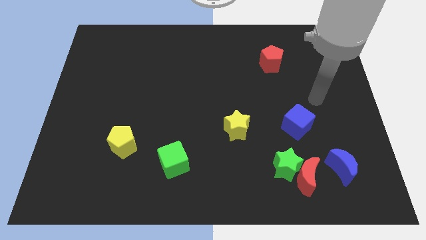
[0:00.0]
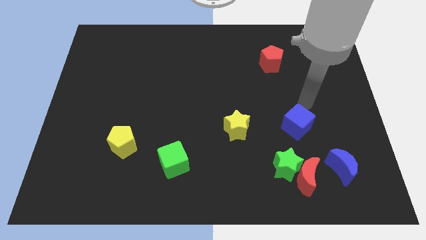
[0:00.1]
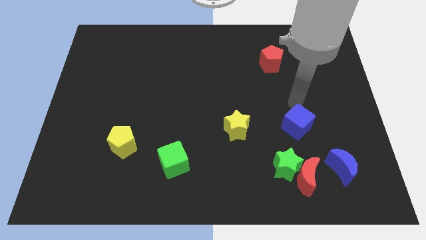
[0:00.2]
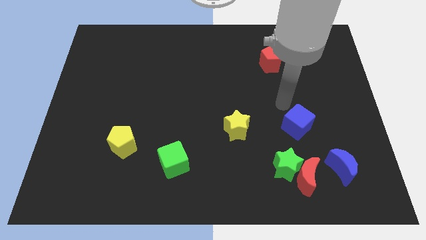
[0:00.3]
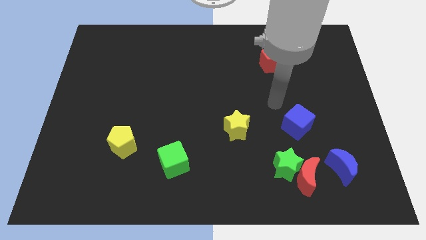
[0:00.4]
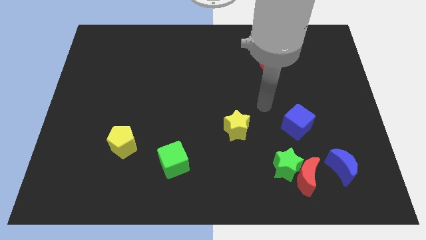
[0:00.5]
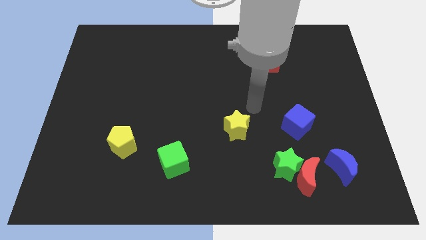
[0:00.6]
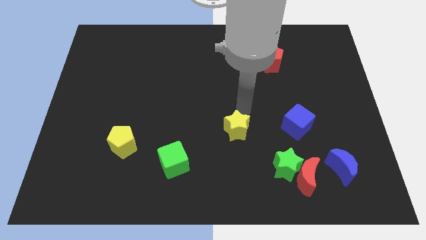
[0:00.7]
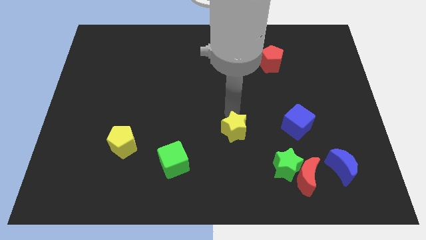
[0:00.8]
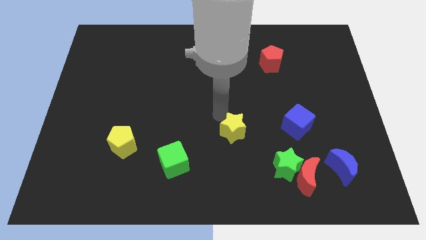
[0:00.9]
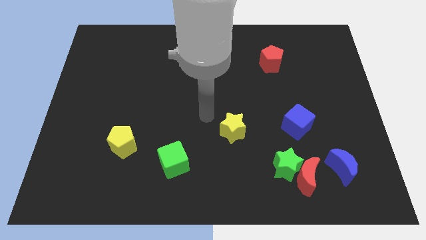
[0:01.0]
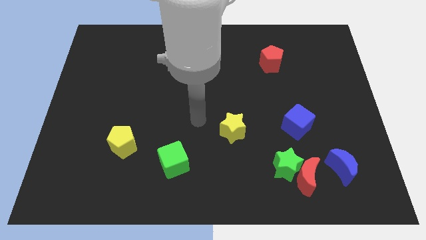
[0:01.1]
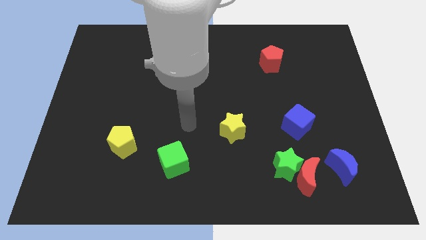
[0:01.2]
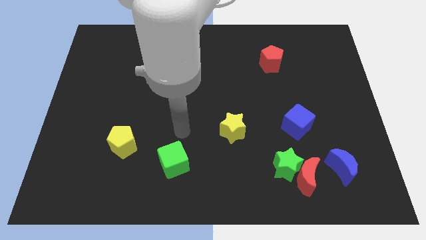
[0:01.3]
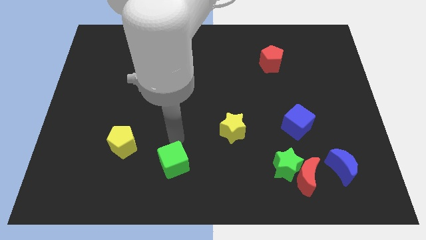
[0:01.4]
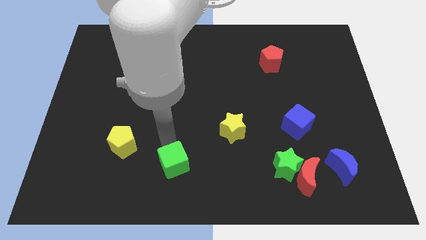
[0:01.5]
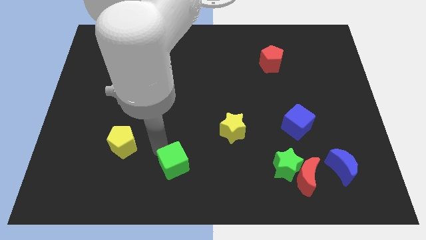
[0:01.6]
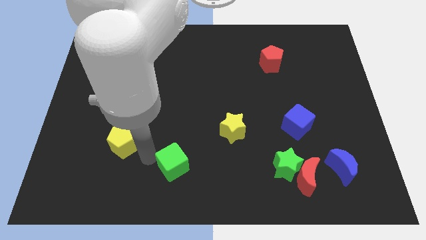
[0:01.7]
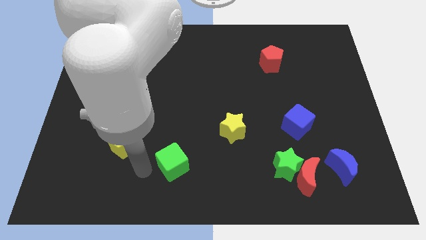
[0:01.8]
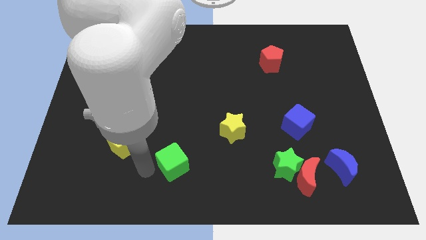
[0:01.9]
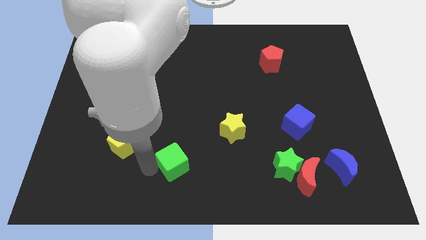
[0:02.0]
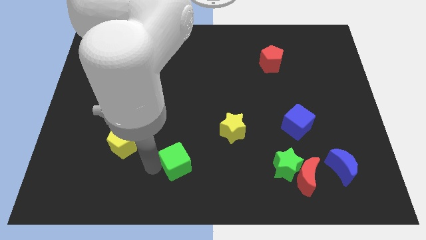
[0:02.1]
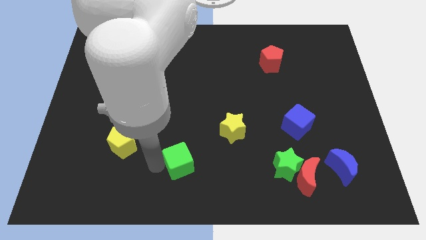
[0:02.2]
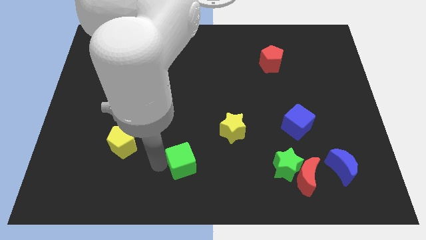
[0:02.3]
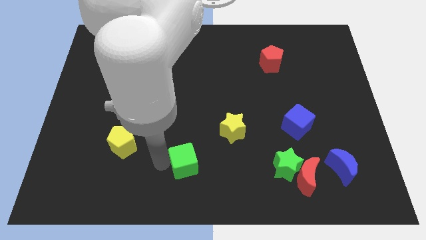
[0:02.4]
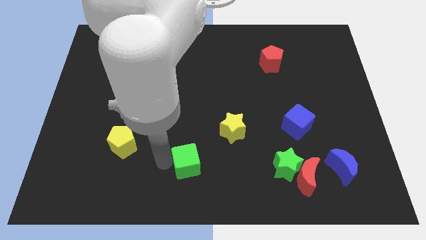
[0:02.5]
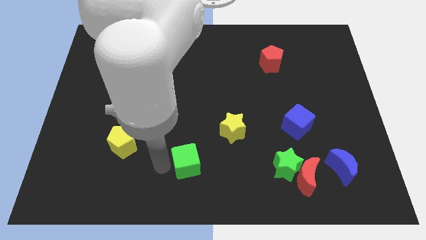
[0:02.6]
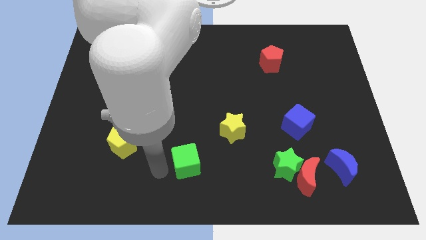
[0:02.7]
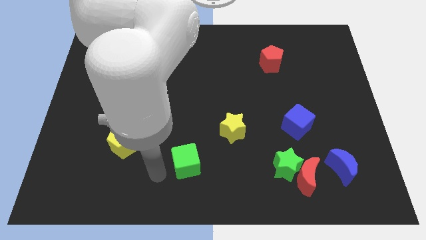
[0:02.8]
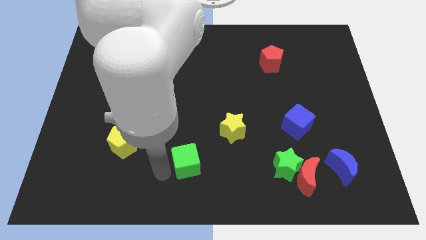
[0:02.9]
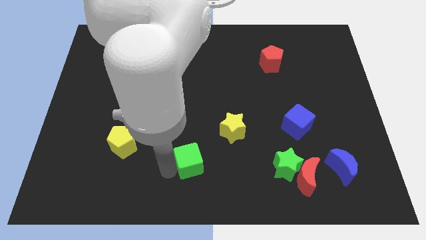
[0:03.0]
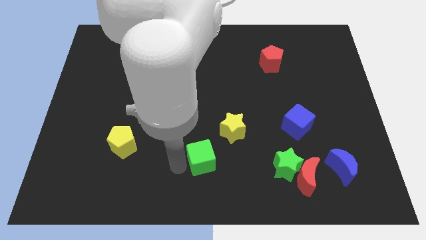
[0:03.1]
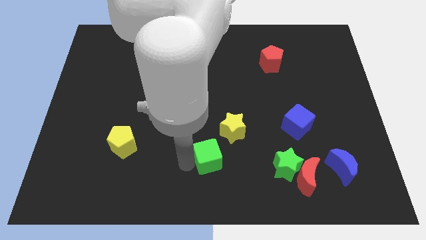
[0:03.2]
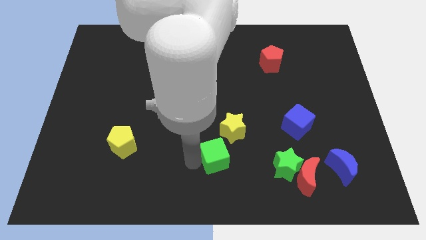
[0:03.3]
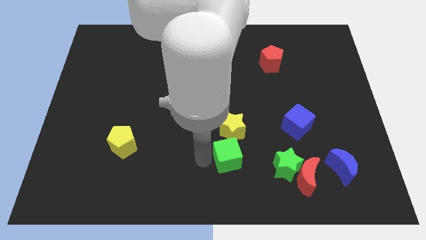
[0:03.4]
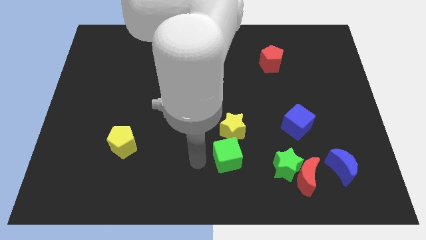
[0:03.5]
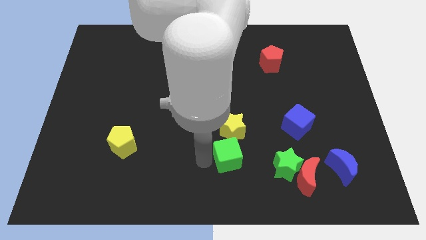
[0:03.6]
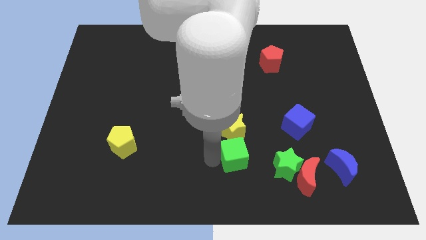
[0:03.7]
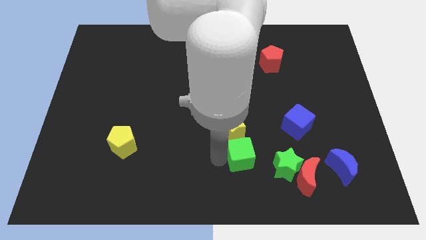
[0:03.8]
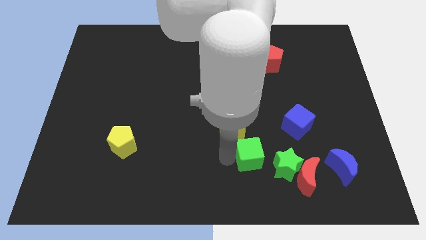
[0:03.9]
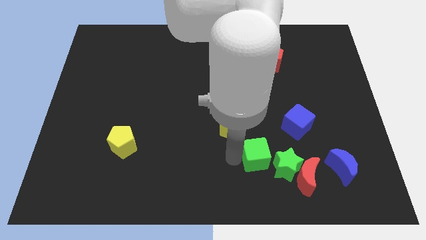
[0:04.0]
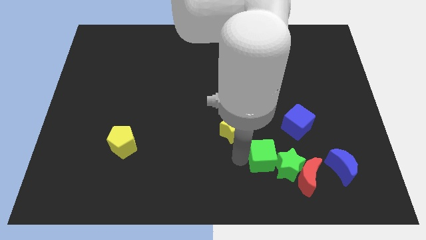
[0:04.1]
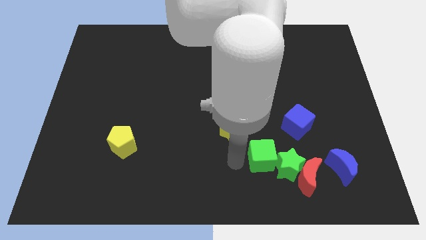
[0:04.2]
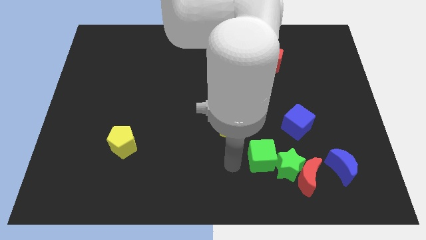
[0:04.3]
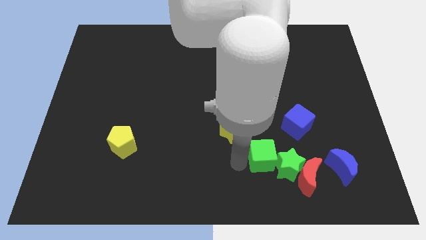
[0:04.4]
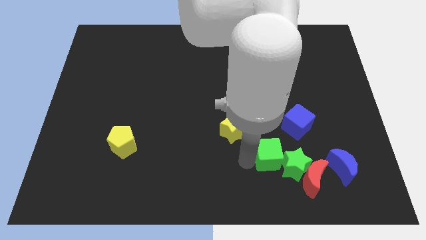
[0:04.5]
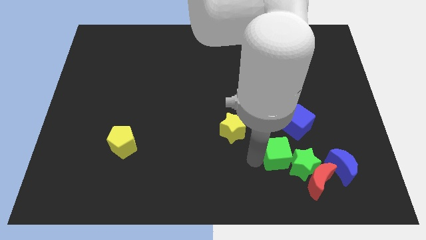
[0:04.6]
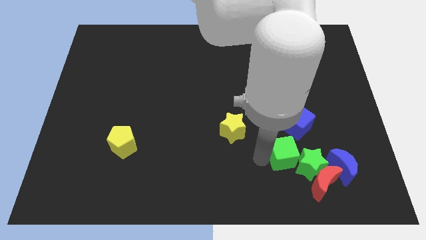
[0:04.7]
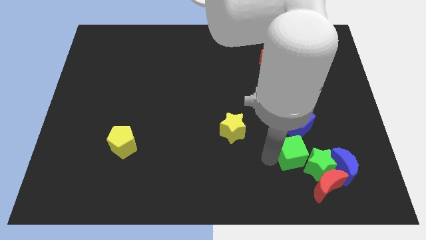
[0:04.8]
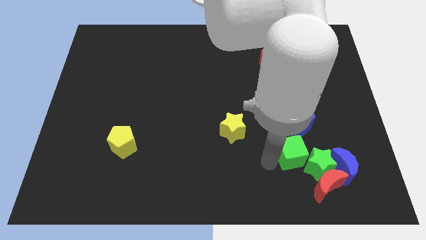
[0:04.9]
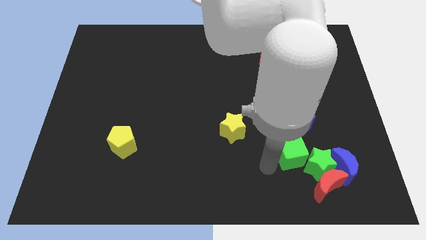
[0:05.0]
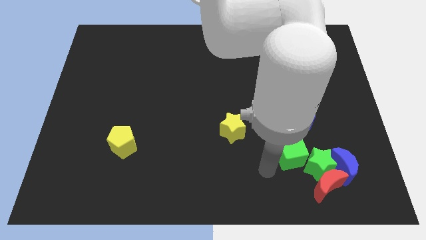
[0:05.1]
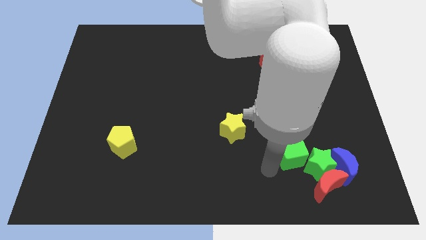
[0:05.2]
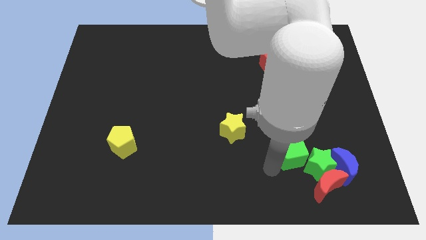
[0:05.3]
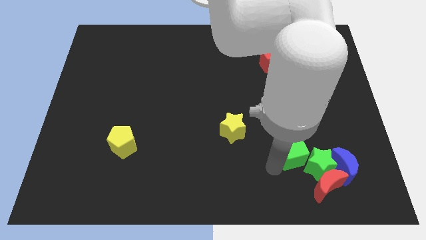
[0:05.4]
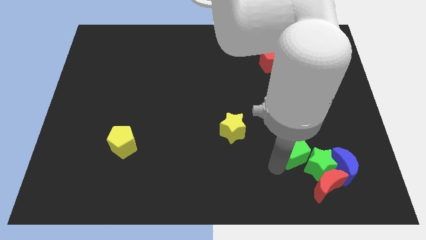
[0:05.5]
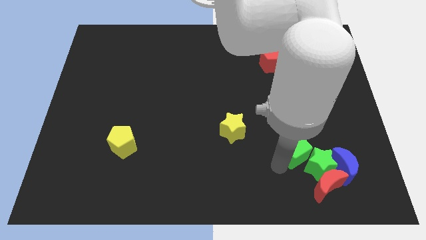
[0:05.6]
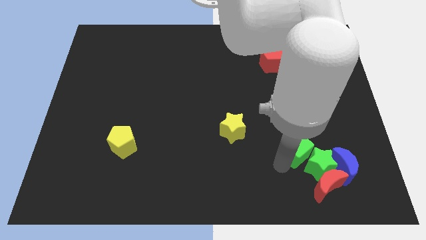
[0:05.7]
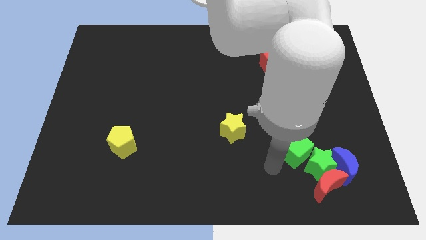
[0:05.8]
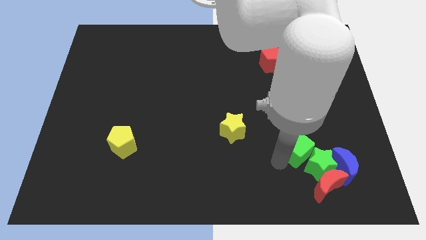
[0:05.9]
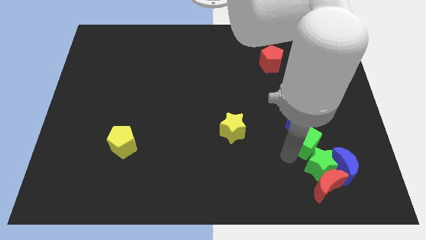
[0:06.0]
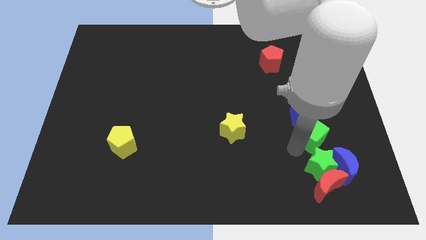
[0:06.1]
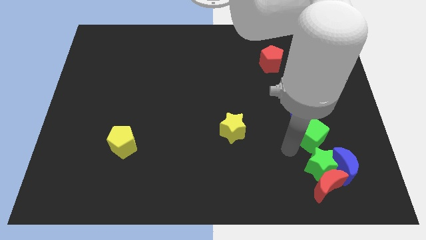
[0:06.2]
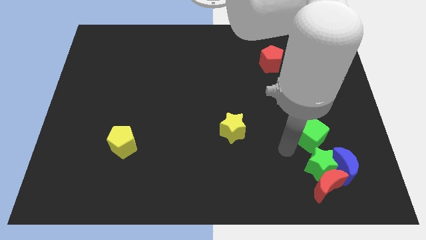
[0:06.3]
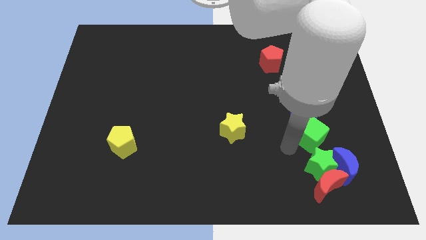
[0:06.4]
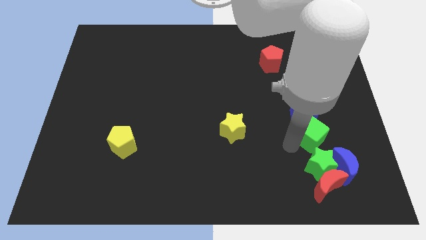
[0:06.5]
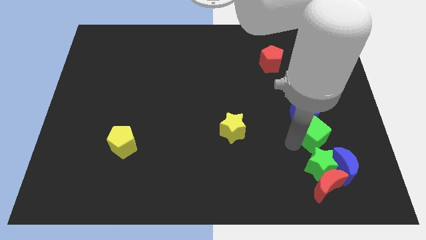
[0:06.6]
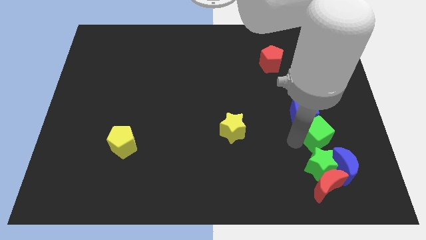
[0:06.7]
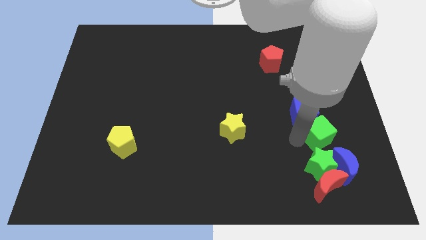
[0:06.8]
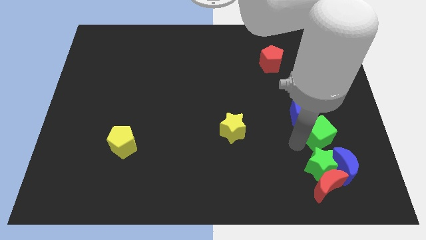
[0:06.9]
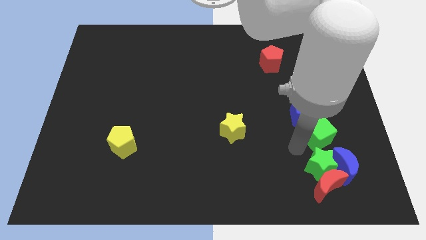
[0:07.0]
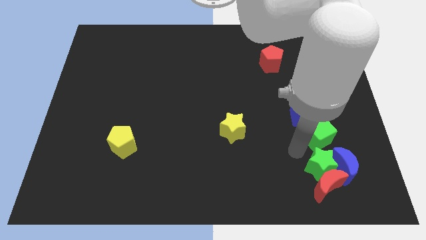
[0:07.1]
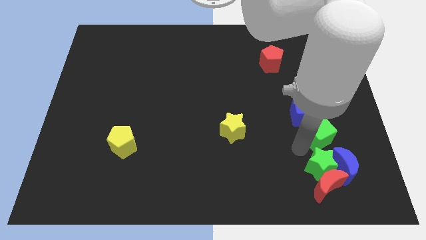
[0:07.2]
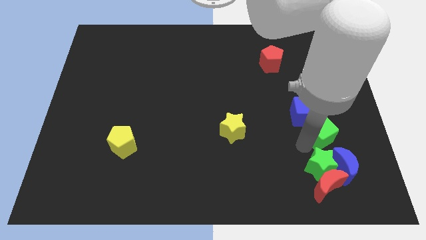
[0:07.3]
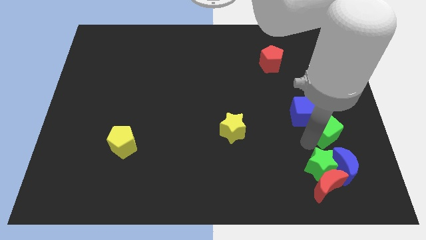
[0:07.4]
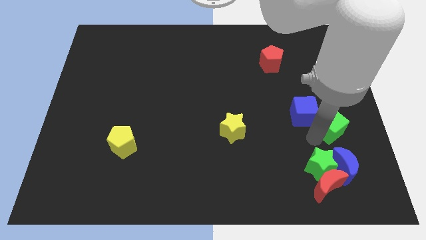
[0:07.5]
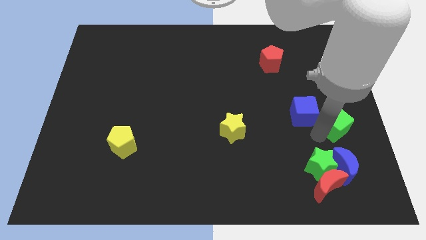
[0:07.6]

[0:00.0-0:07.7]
put the green cube to the right side
